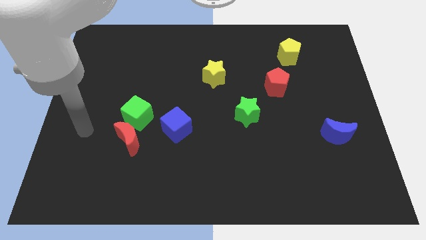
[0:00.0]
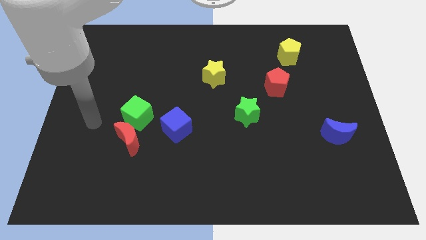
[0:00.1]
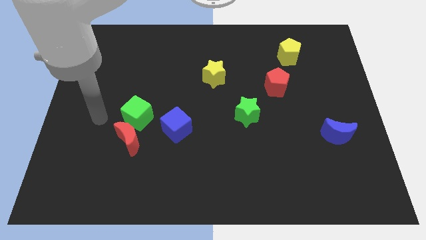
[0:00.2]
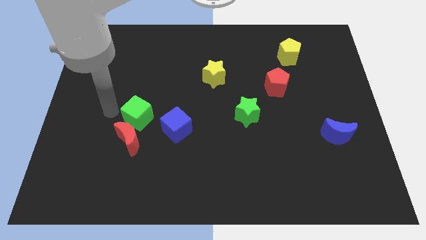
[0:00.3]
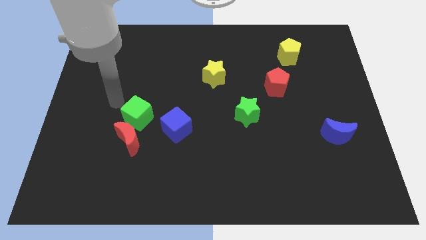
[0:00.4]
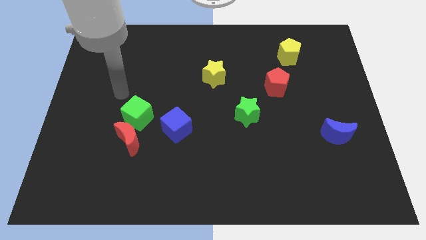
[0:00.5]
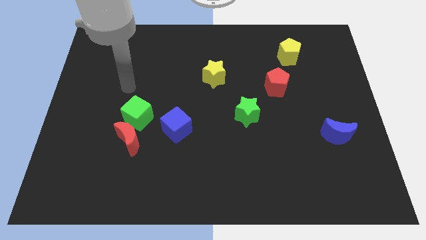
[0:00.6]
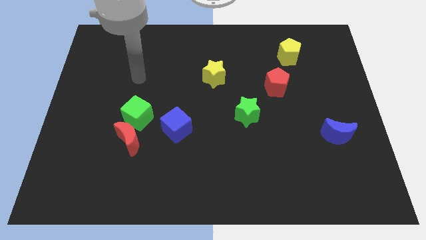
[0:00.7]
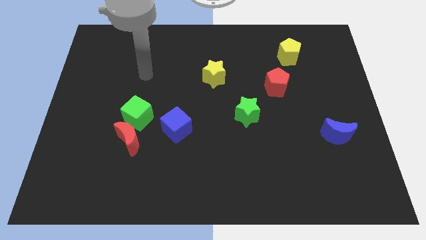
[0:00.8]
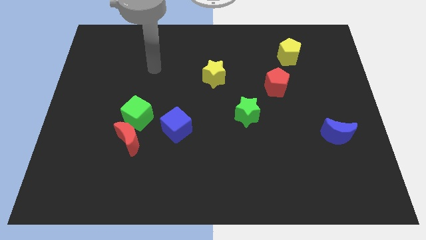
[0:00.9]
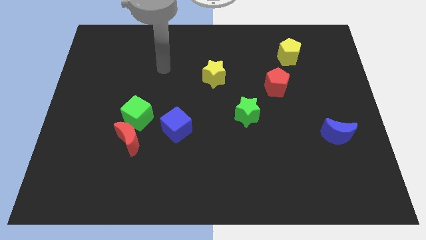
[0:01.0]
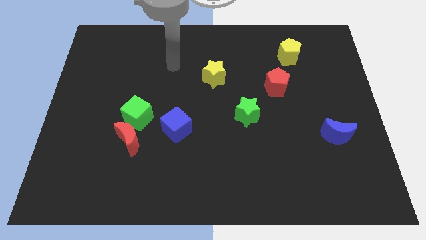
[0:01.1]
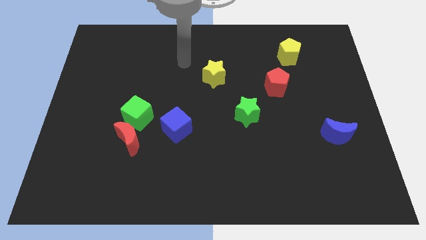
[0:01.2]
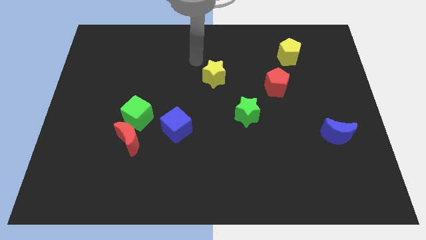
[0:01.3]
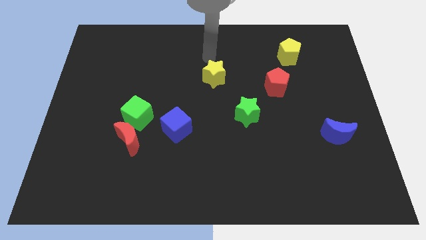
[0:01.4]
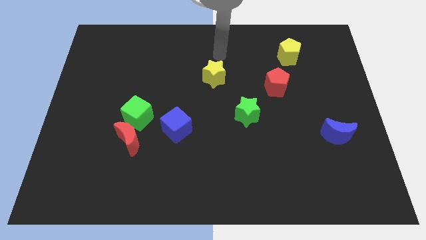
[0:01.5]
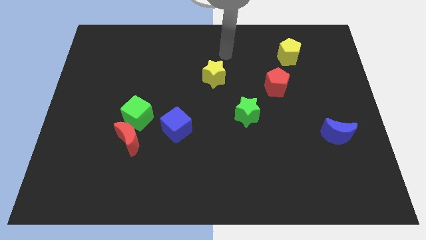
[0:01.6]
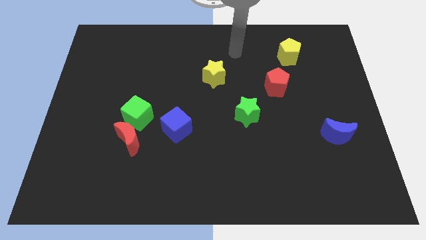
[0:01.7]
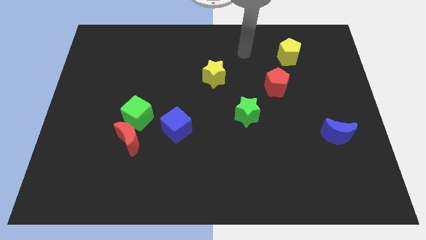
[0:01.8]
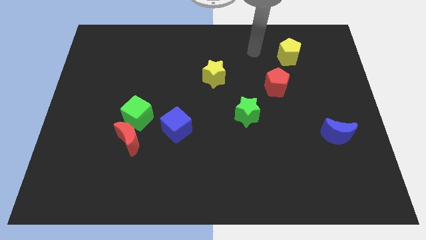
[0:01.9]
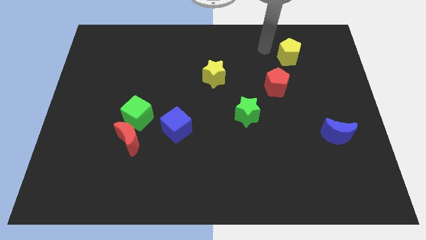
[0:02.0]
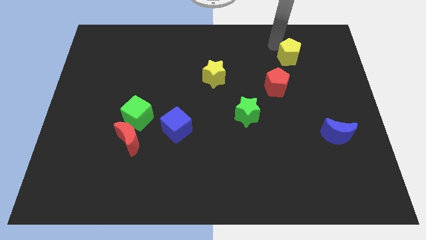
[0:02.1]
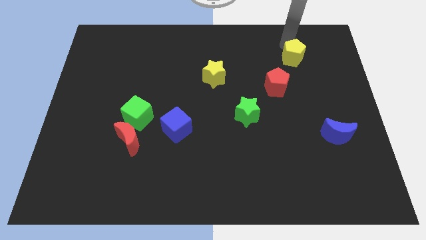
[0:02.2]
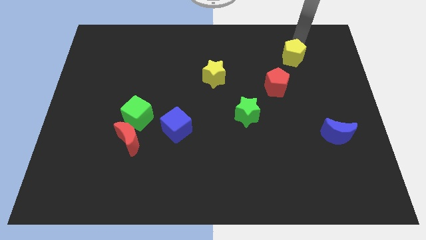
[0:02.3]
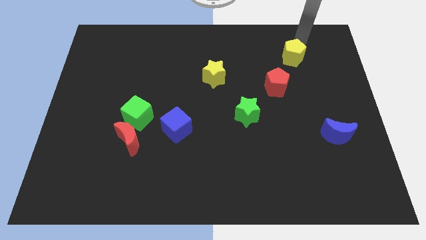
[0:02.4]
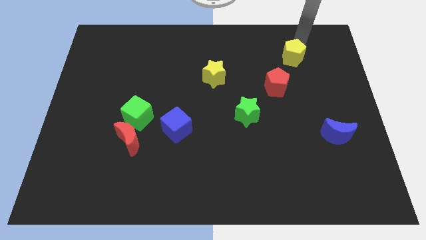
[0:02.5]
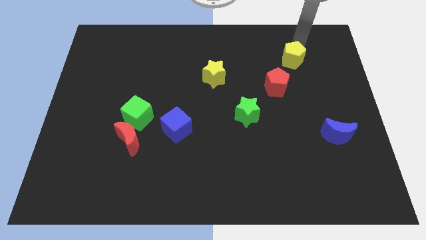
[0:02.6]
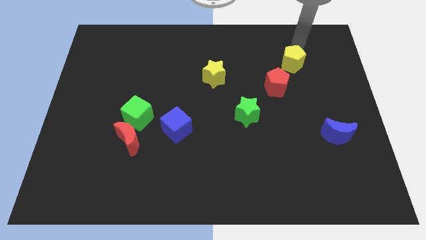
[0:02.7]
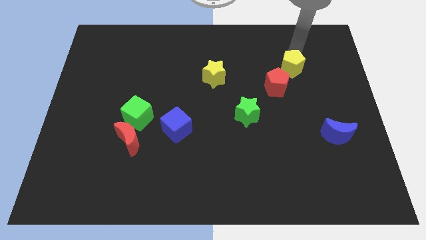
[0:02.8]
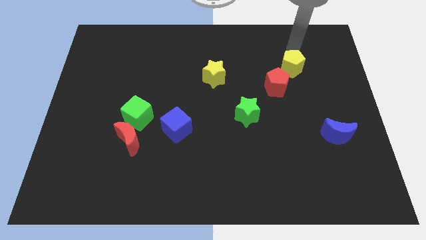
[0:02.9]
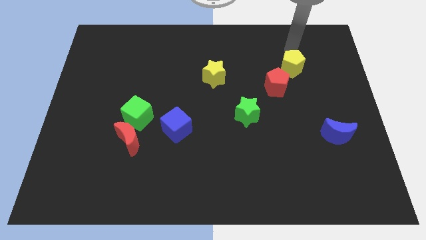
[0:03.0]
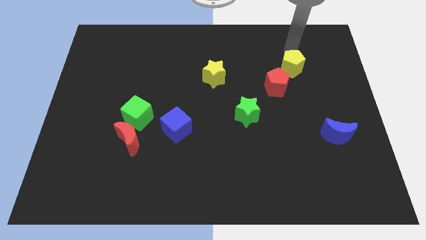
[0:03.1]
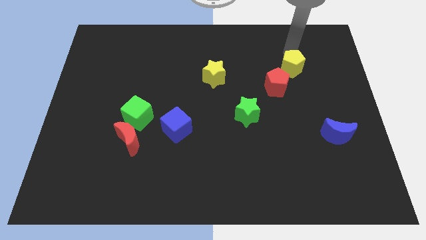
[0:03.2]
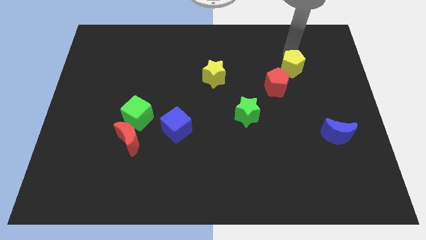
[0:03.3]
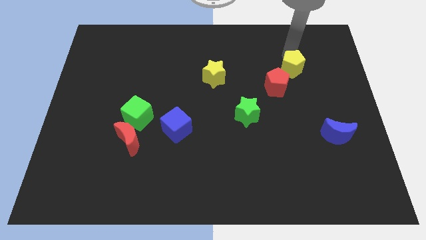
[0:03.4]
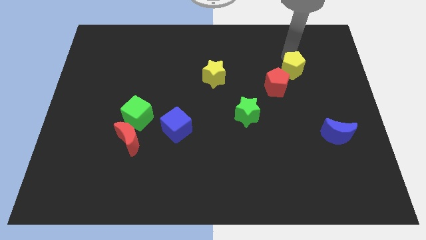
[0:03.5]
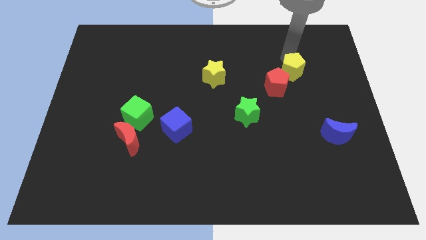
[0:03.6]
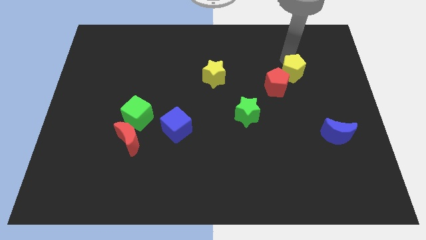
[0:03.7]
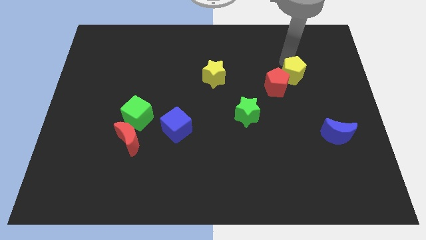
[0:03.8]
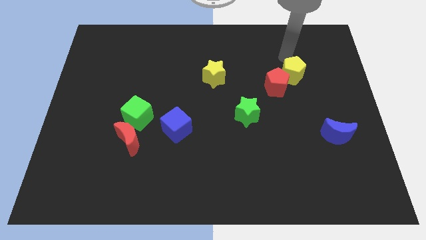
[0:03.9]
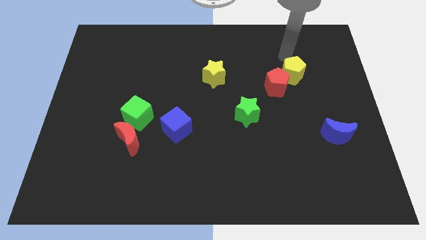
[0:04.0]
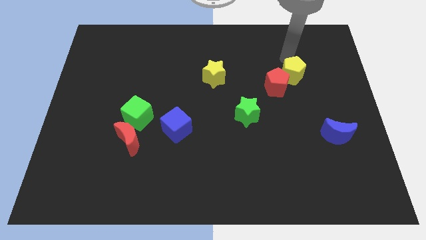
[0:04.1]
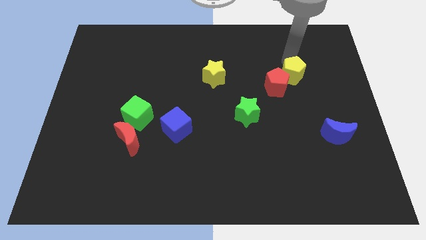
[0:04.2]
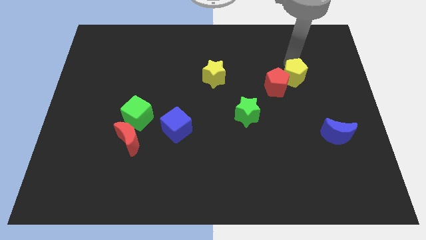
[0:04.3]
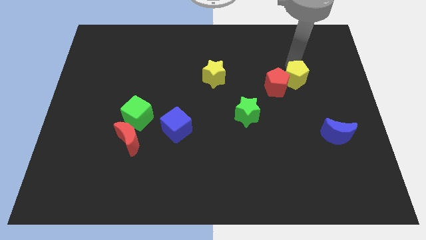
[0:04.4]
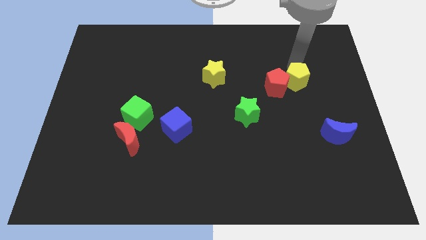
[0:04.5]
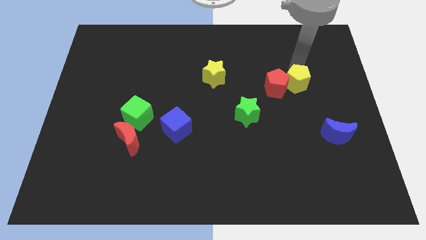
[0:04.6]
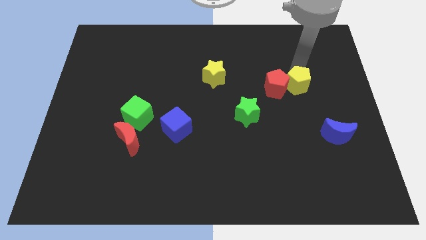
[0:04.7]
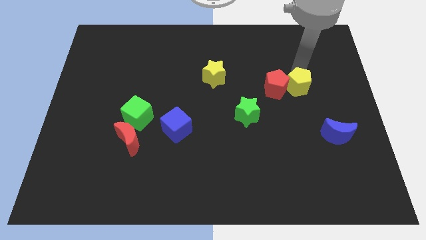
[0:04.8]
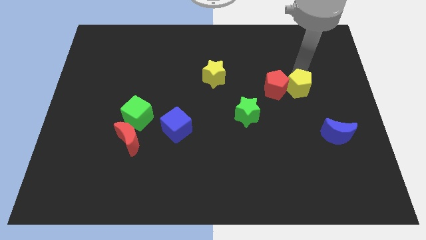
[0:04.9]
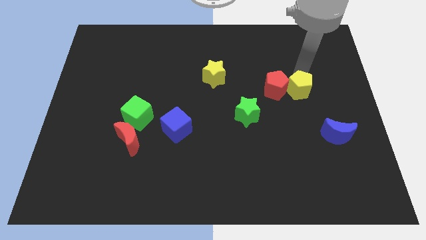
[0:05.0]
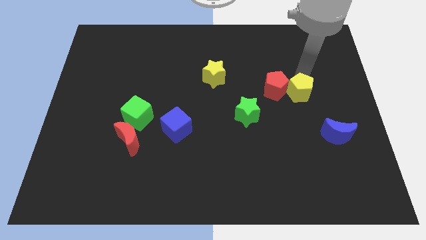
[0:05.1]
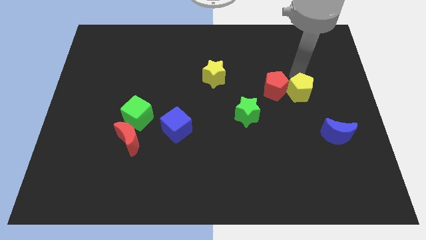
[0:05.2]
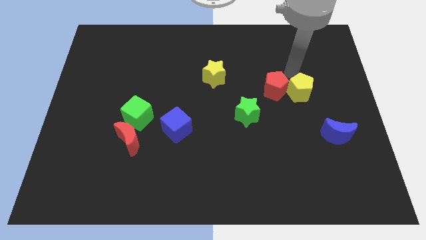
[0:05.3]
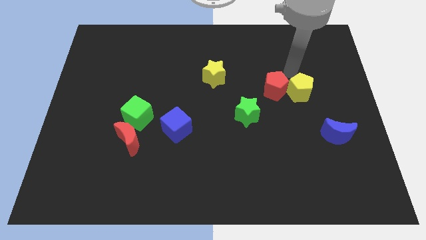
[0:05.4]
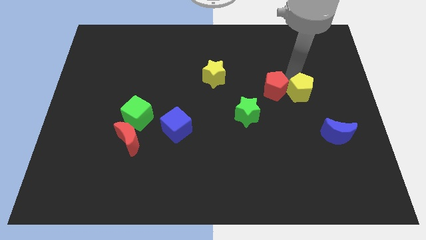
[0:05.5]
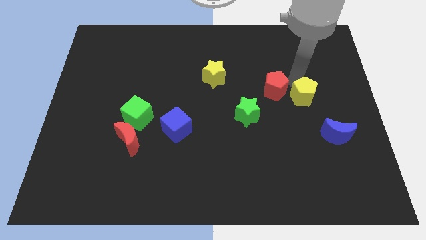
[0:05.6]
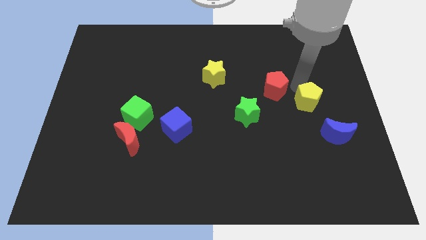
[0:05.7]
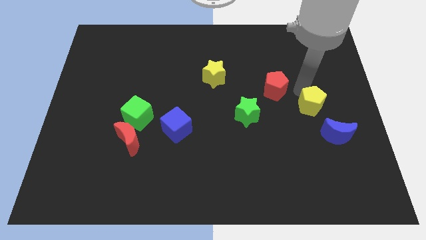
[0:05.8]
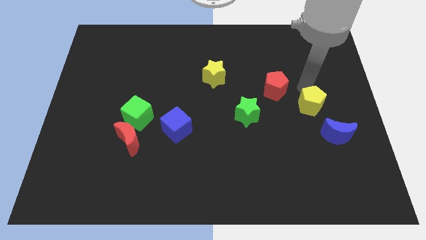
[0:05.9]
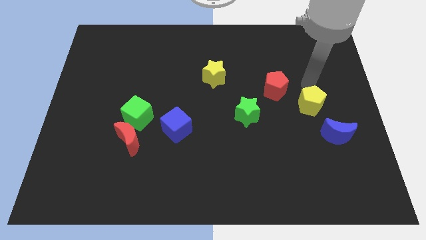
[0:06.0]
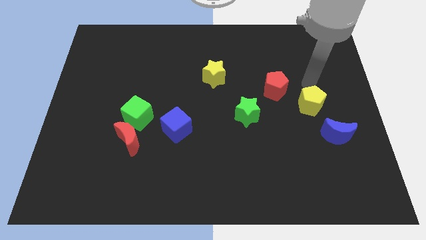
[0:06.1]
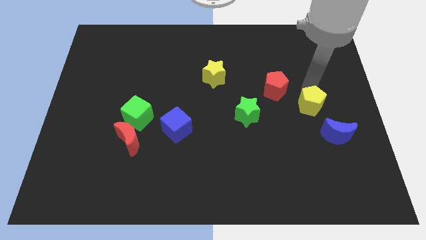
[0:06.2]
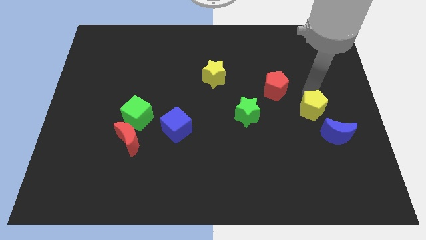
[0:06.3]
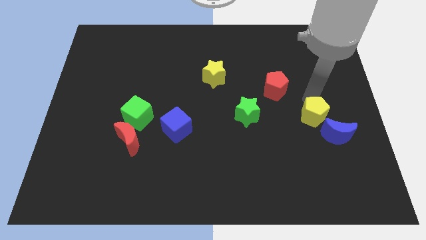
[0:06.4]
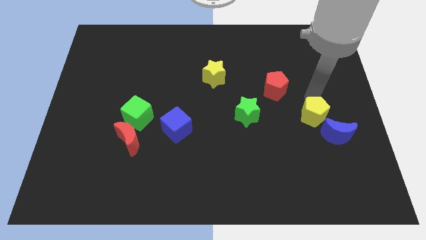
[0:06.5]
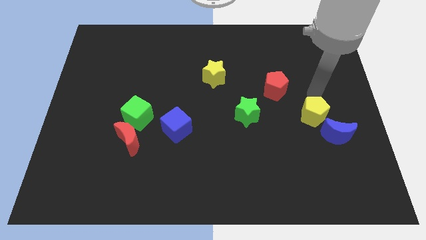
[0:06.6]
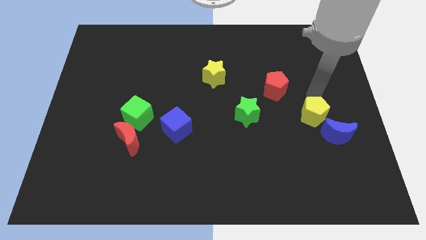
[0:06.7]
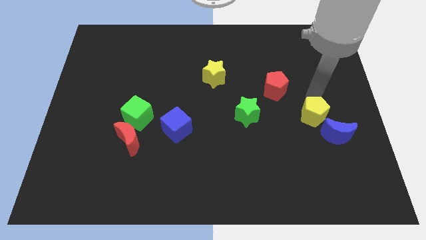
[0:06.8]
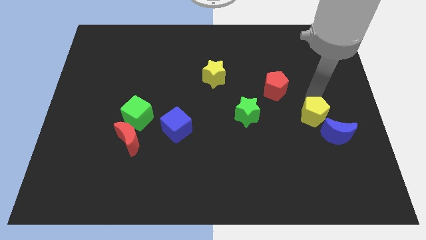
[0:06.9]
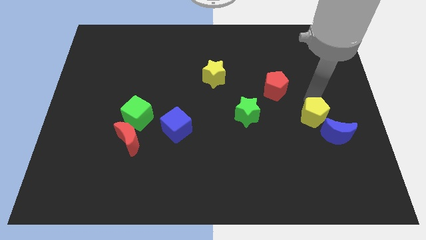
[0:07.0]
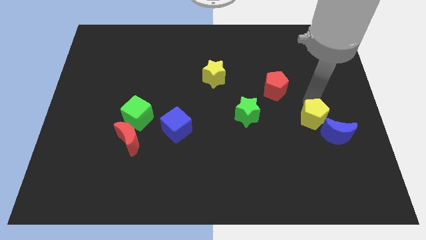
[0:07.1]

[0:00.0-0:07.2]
slide the yellow pentagon down

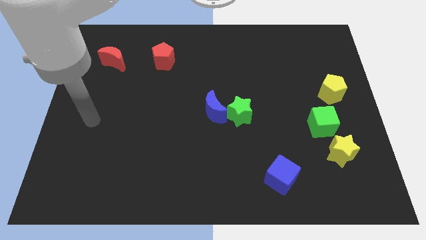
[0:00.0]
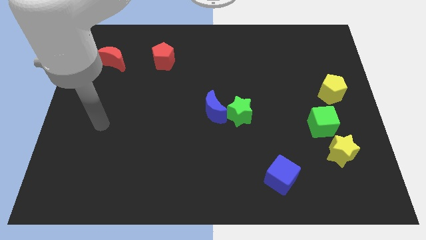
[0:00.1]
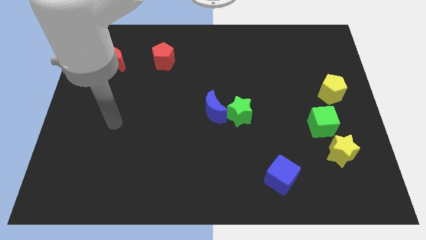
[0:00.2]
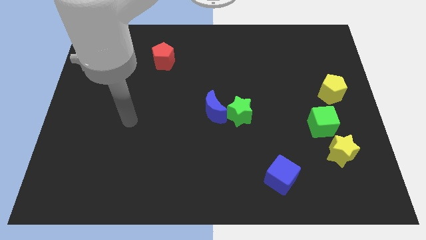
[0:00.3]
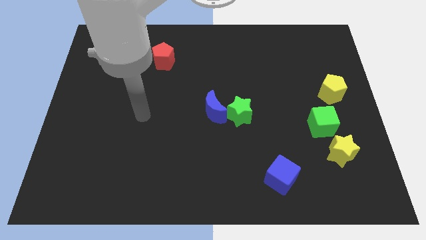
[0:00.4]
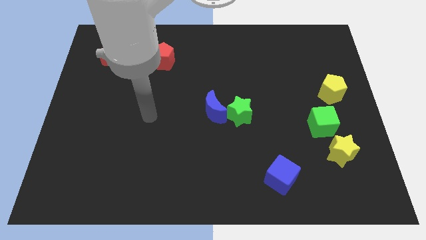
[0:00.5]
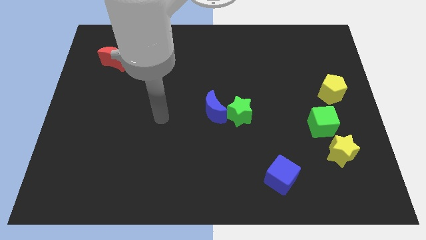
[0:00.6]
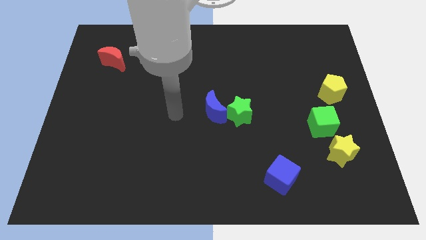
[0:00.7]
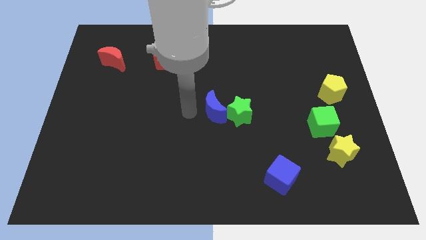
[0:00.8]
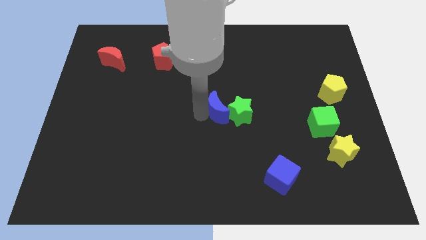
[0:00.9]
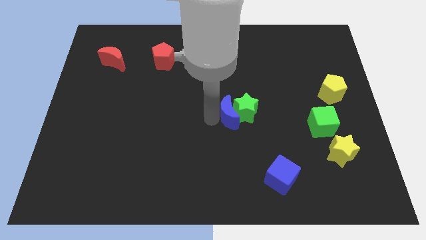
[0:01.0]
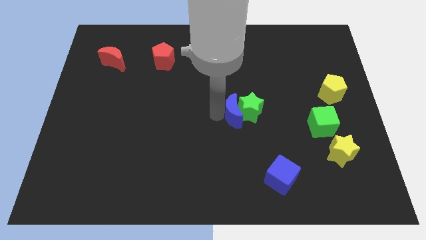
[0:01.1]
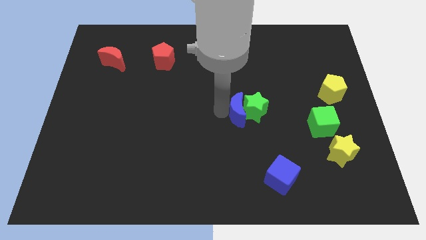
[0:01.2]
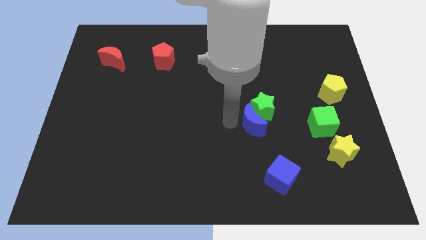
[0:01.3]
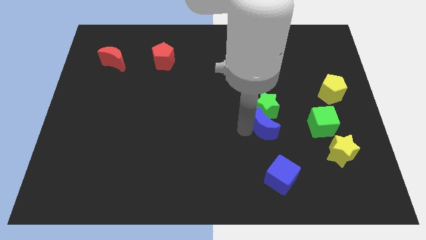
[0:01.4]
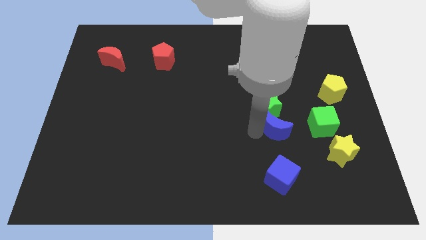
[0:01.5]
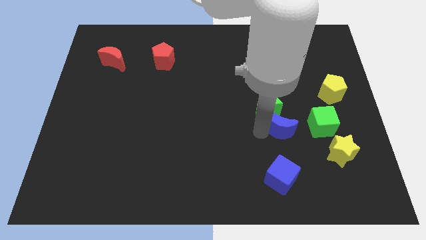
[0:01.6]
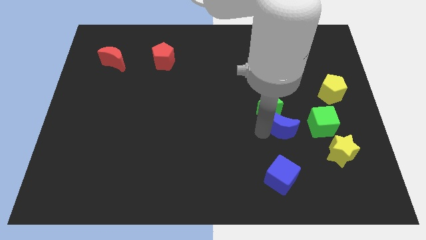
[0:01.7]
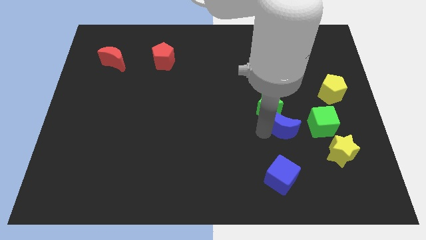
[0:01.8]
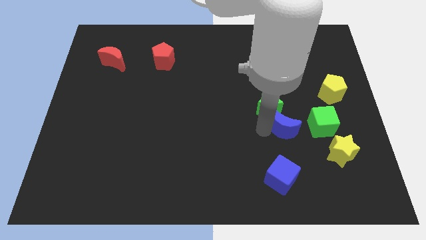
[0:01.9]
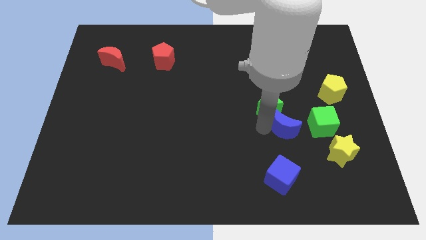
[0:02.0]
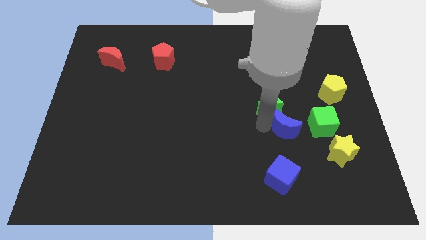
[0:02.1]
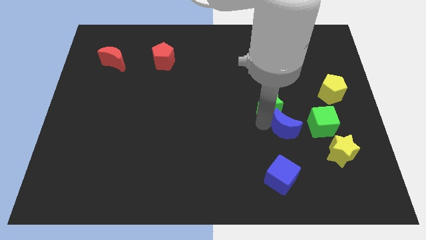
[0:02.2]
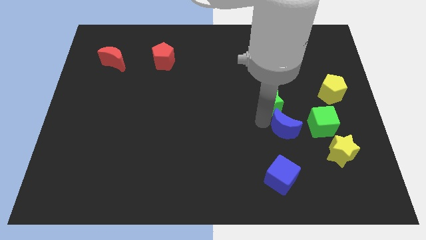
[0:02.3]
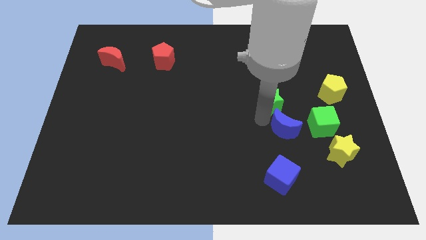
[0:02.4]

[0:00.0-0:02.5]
slide the green star a little upwards and then to the right
